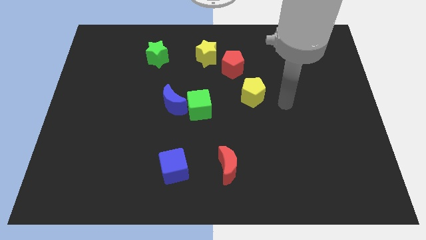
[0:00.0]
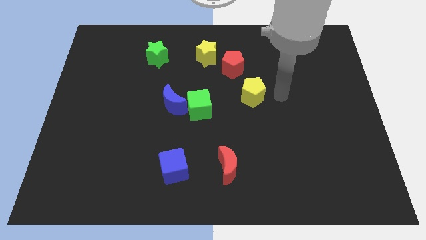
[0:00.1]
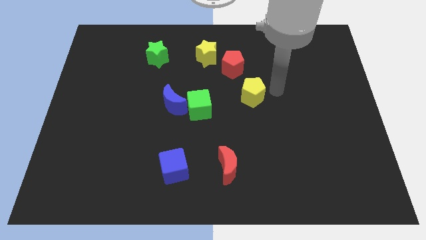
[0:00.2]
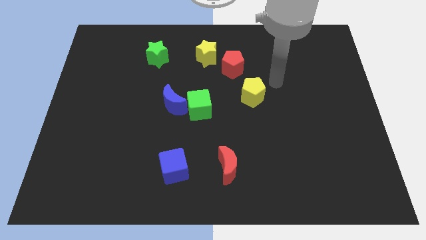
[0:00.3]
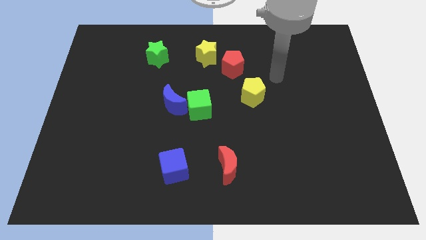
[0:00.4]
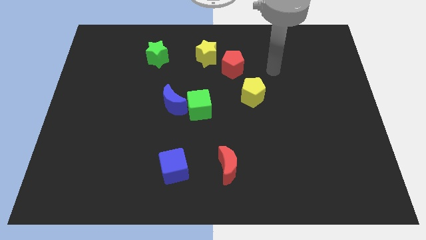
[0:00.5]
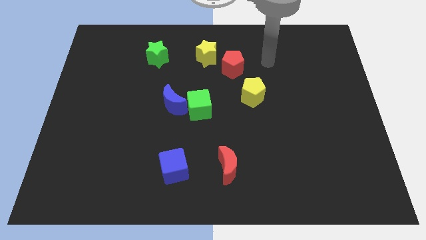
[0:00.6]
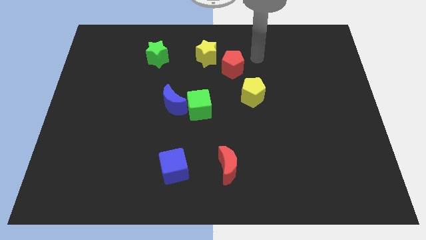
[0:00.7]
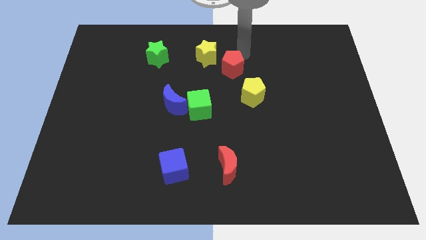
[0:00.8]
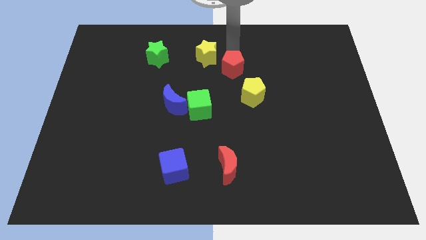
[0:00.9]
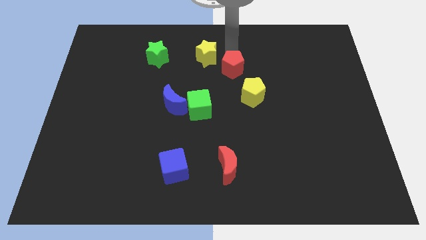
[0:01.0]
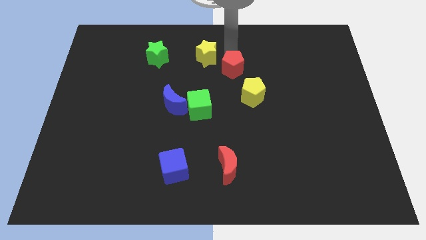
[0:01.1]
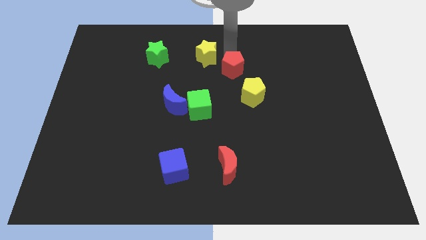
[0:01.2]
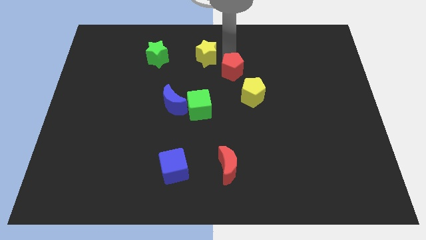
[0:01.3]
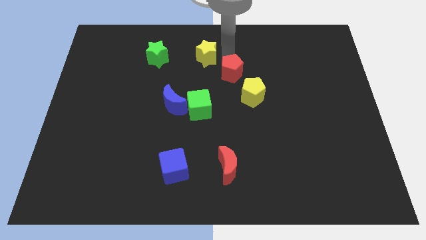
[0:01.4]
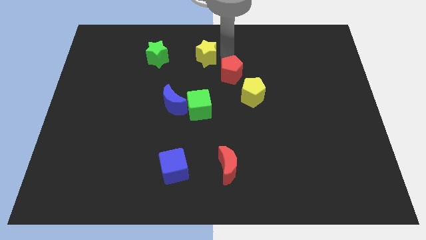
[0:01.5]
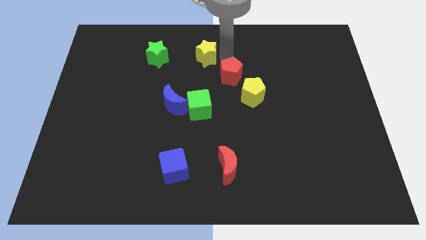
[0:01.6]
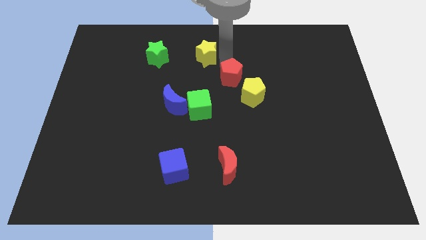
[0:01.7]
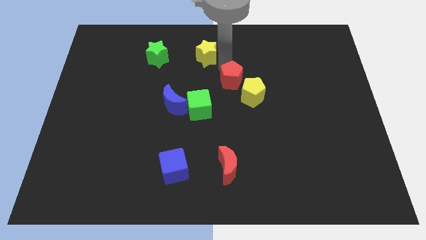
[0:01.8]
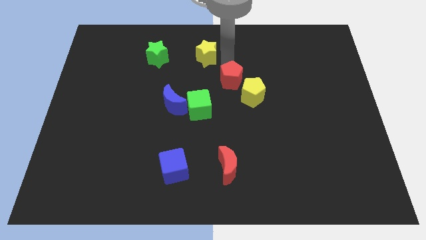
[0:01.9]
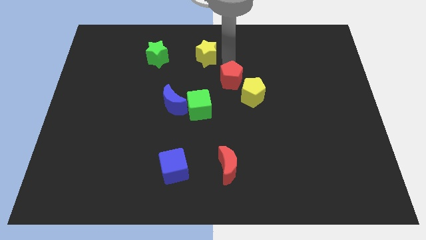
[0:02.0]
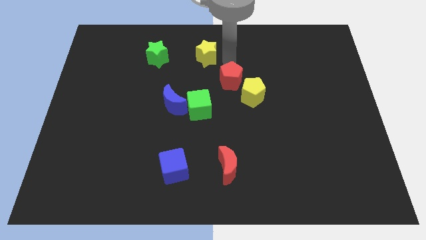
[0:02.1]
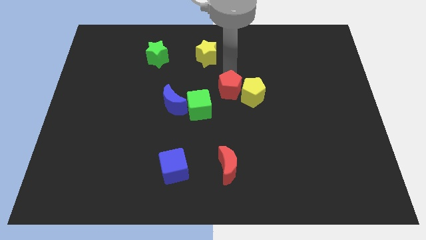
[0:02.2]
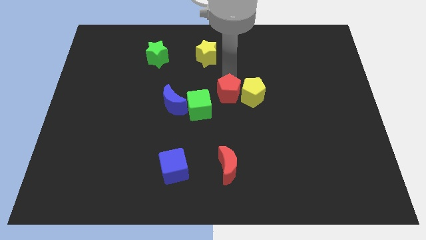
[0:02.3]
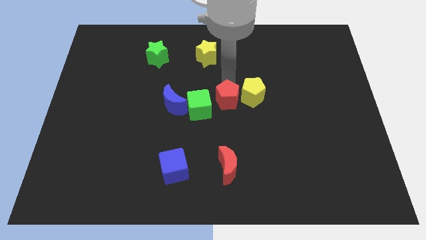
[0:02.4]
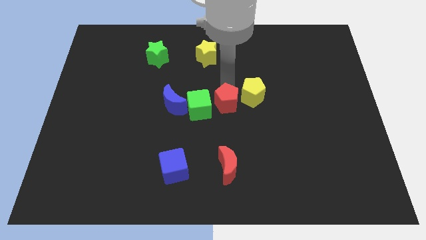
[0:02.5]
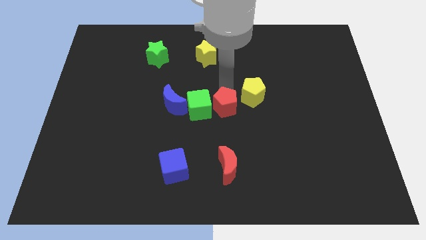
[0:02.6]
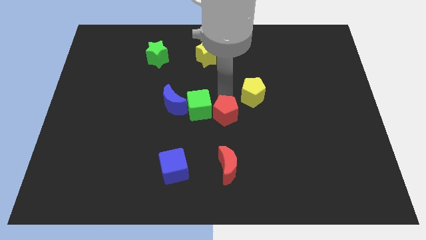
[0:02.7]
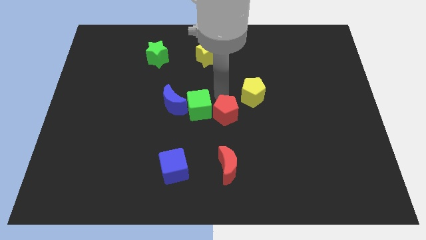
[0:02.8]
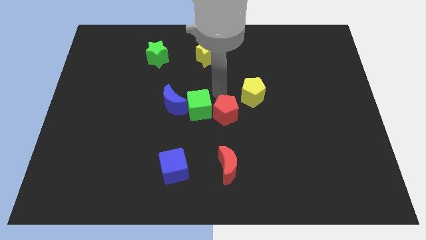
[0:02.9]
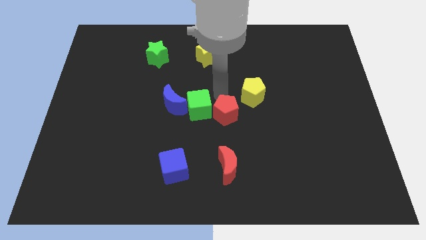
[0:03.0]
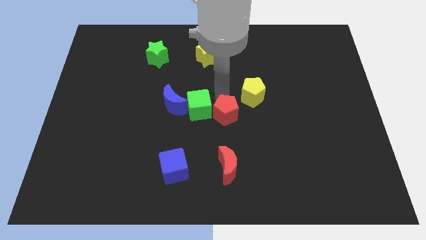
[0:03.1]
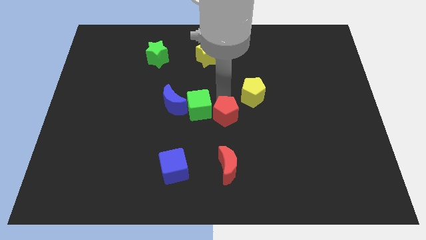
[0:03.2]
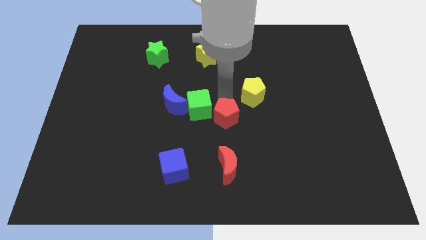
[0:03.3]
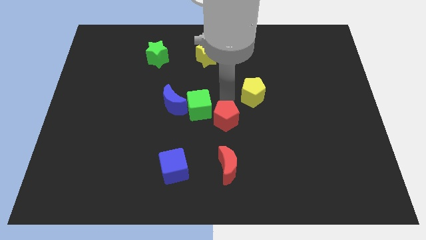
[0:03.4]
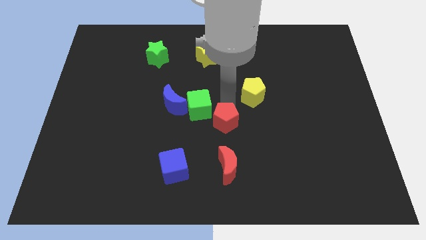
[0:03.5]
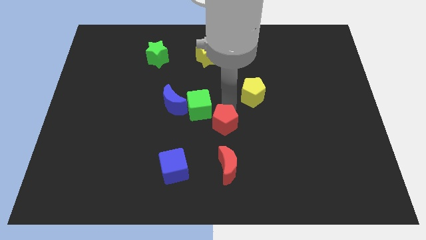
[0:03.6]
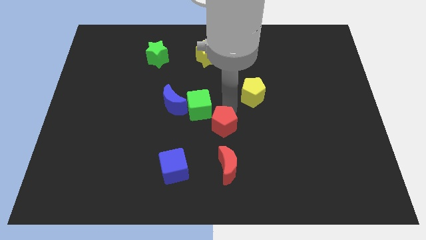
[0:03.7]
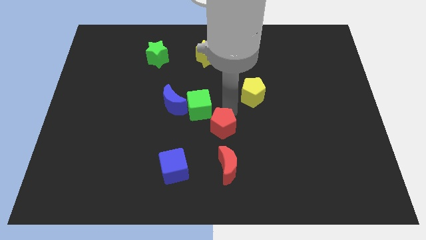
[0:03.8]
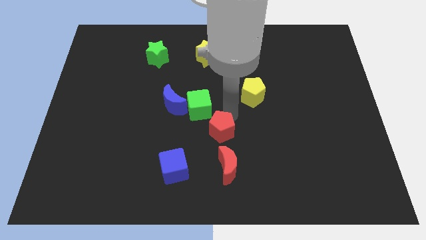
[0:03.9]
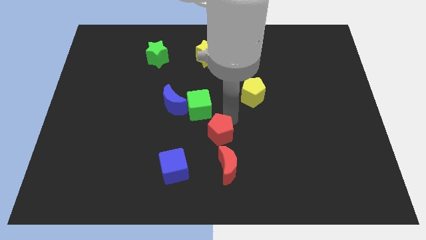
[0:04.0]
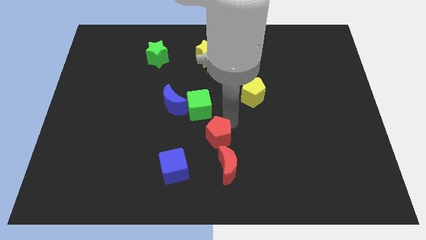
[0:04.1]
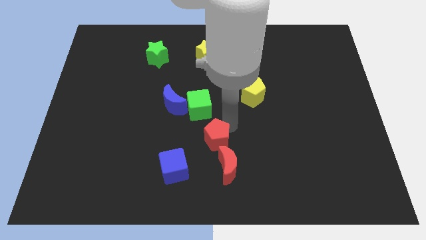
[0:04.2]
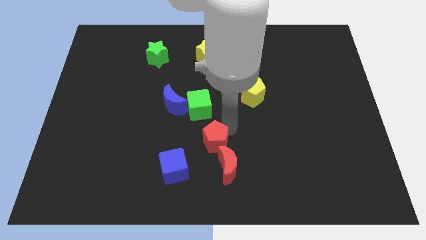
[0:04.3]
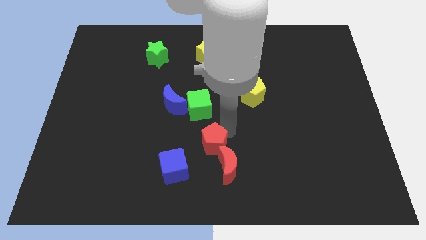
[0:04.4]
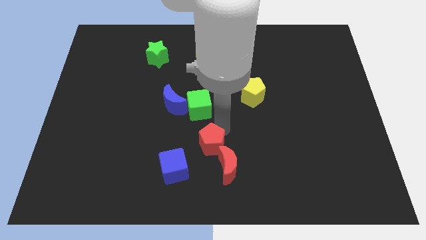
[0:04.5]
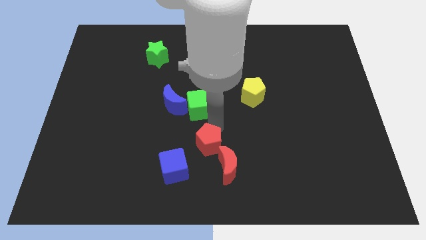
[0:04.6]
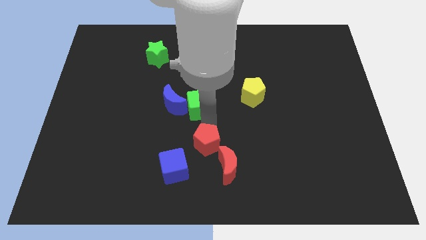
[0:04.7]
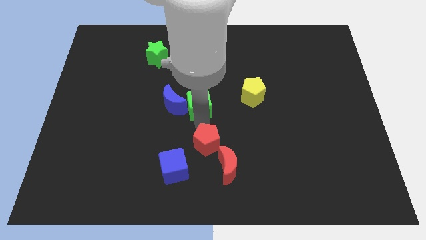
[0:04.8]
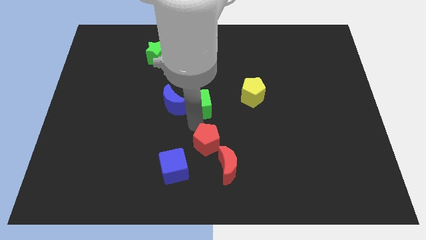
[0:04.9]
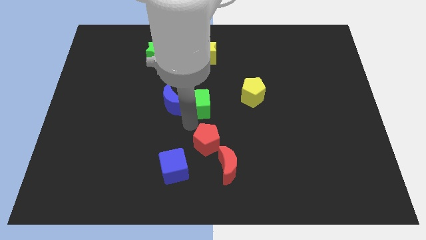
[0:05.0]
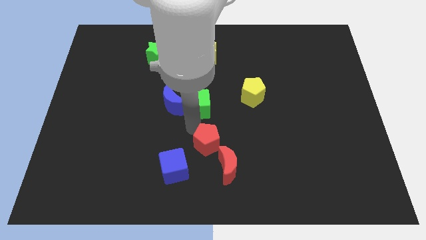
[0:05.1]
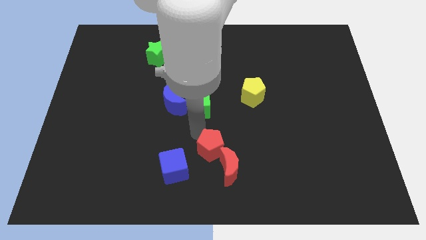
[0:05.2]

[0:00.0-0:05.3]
move the red pentagon close to the red moon

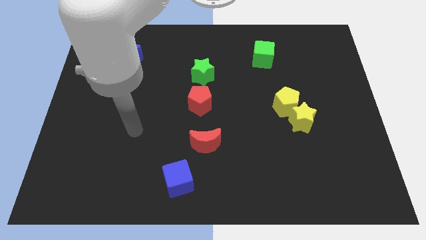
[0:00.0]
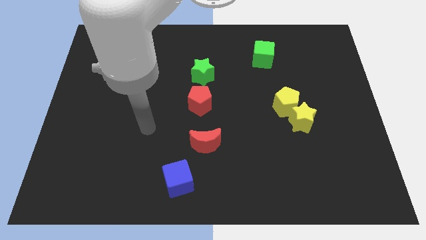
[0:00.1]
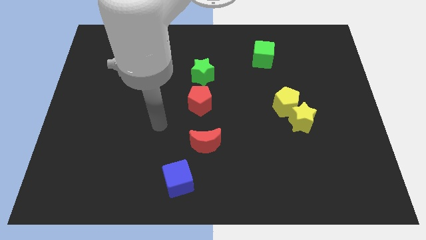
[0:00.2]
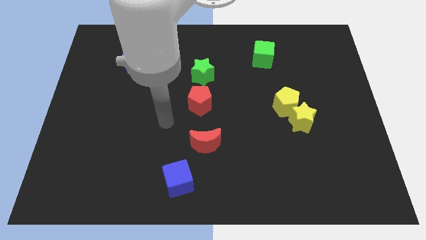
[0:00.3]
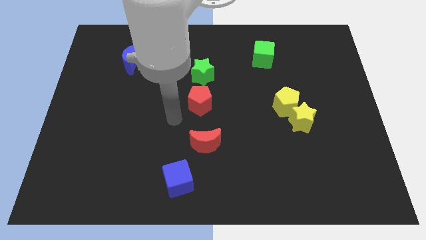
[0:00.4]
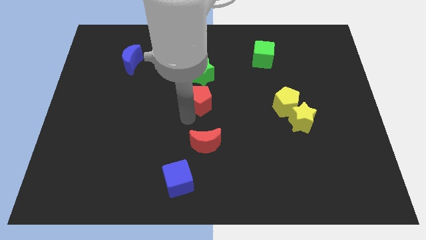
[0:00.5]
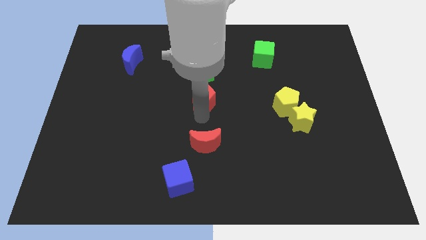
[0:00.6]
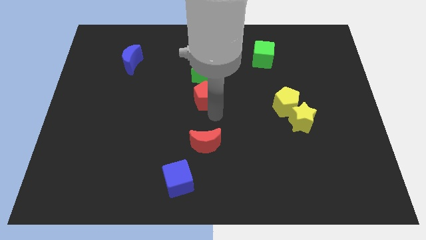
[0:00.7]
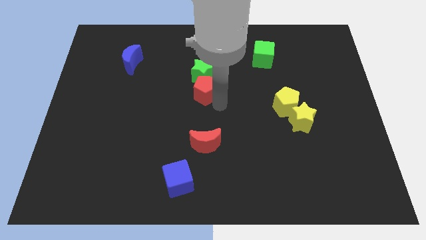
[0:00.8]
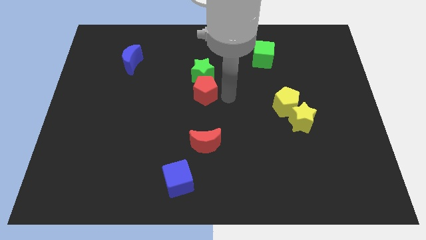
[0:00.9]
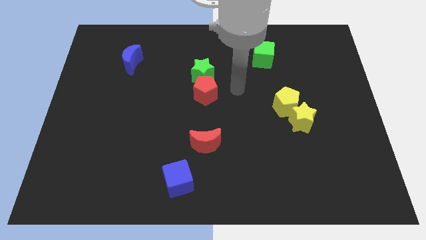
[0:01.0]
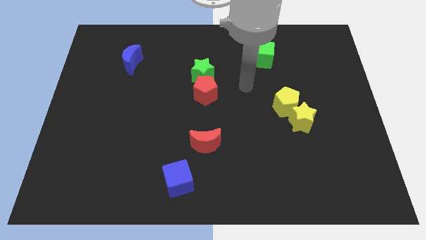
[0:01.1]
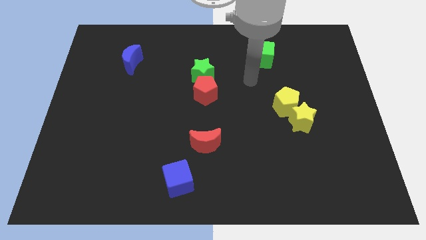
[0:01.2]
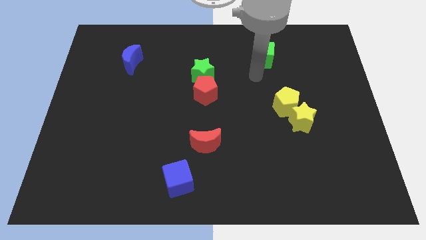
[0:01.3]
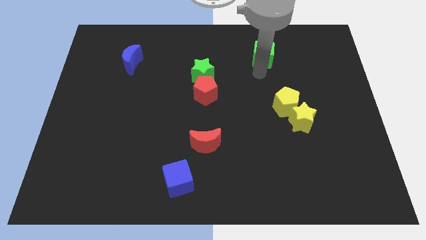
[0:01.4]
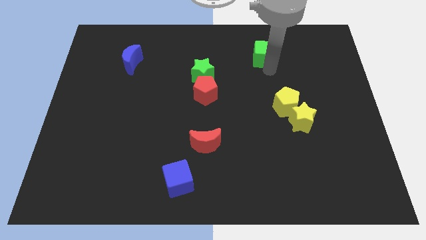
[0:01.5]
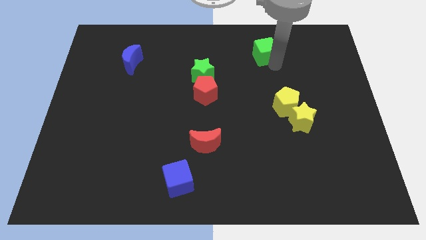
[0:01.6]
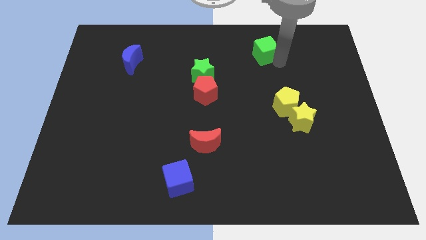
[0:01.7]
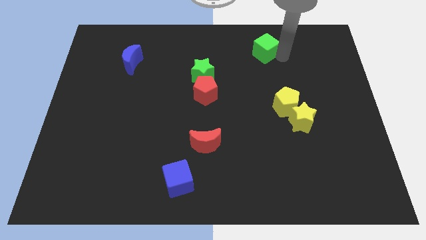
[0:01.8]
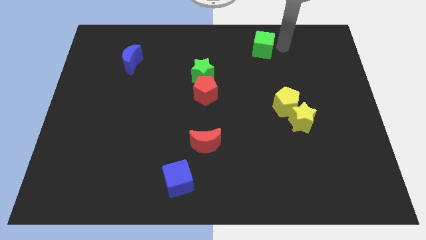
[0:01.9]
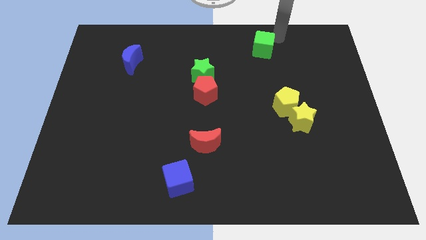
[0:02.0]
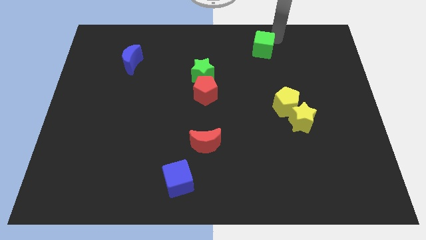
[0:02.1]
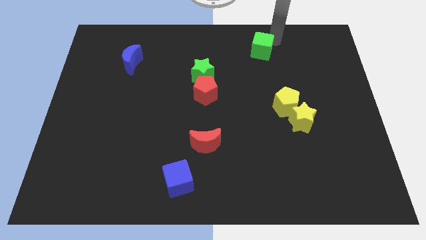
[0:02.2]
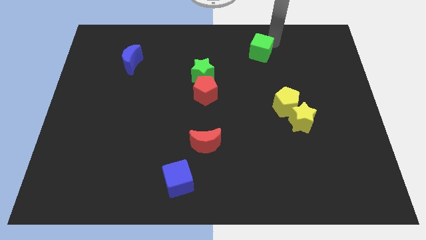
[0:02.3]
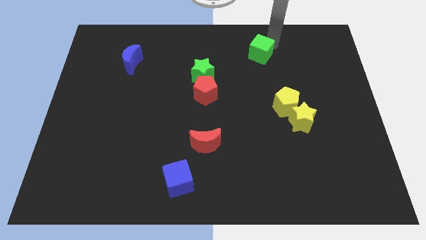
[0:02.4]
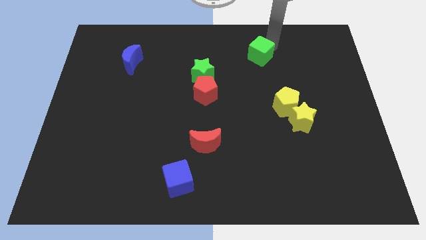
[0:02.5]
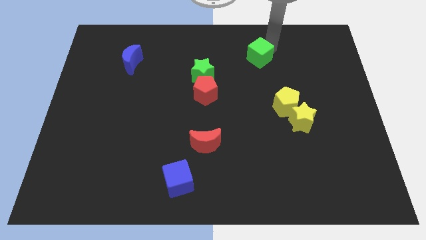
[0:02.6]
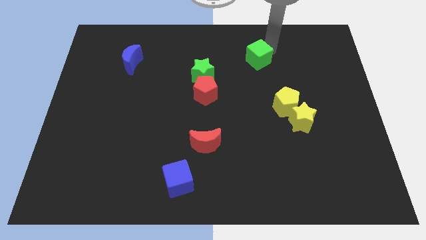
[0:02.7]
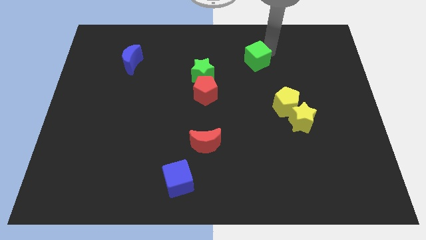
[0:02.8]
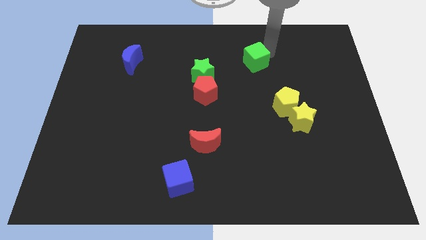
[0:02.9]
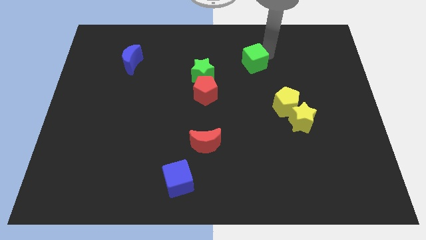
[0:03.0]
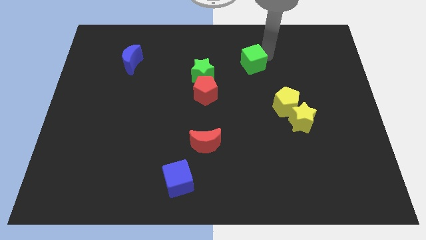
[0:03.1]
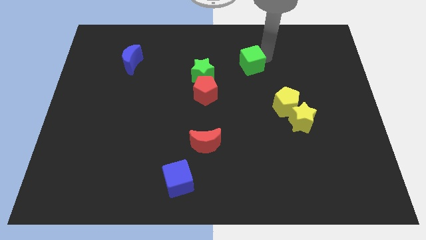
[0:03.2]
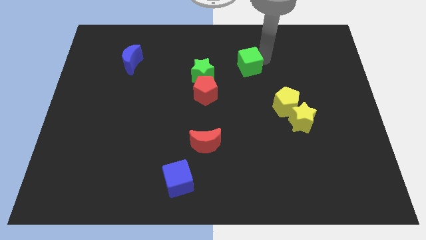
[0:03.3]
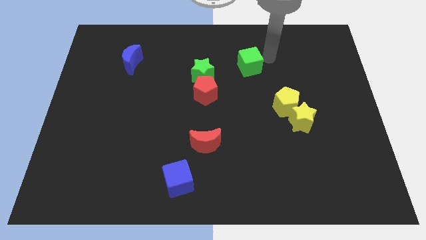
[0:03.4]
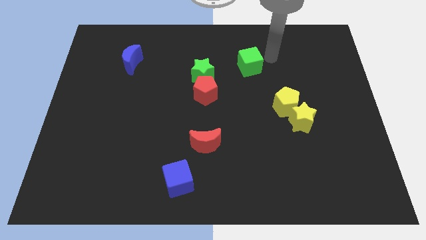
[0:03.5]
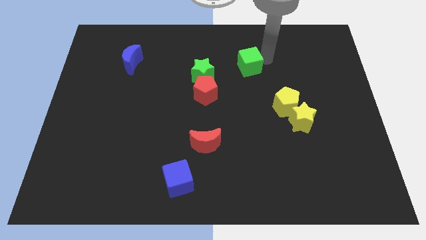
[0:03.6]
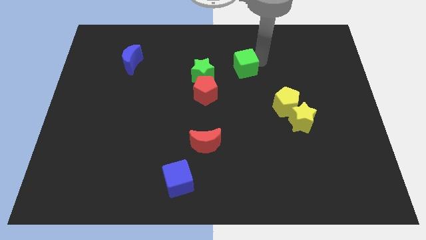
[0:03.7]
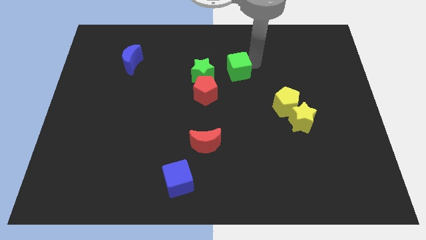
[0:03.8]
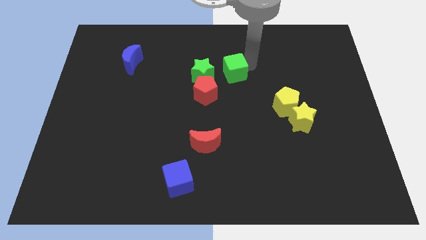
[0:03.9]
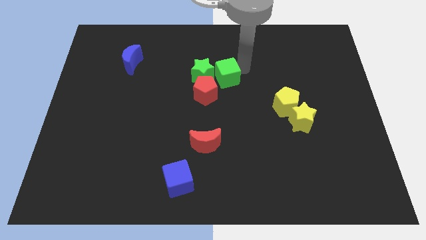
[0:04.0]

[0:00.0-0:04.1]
move the green cube towards the green star
